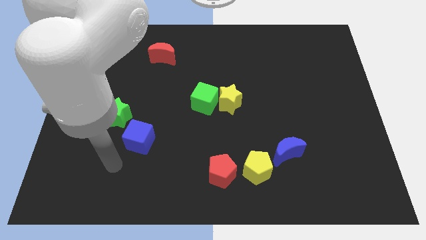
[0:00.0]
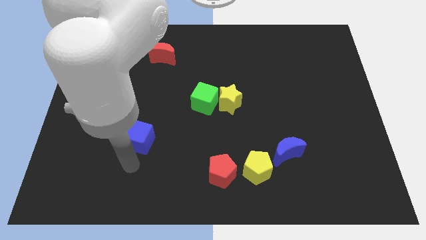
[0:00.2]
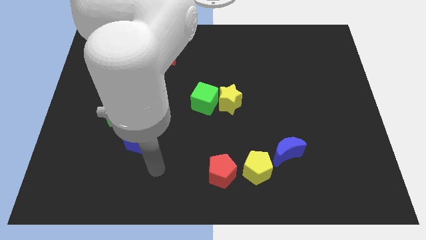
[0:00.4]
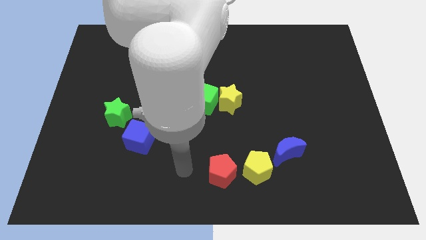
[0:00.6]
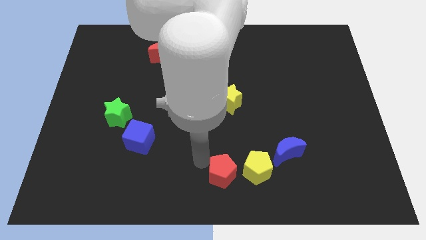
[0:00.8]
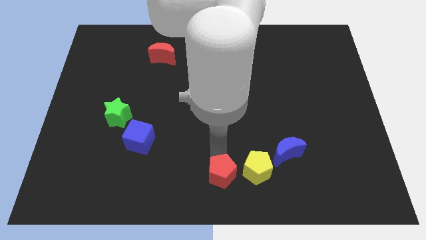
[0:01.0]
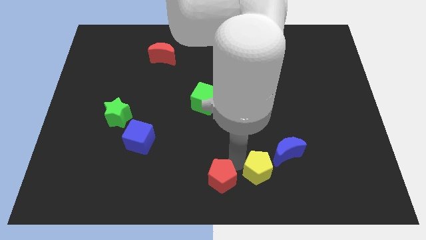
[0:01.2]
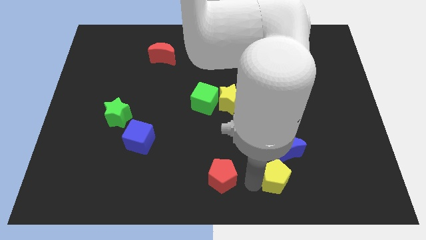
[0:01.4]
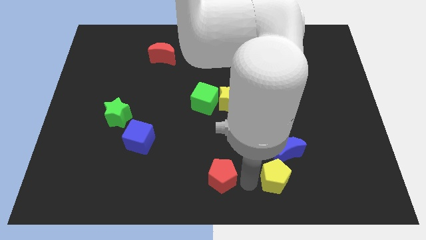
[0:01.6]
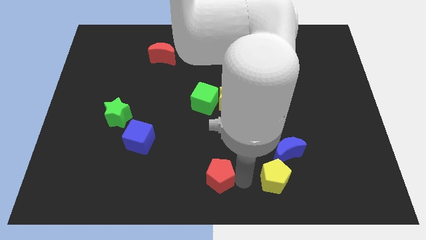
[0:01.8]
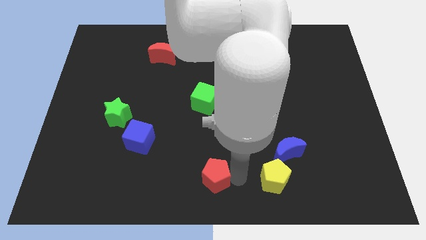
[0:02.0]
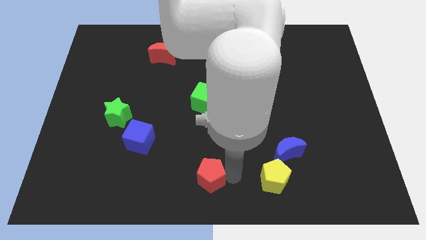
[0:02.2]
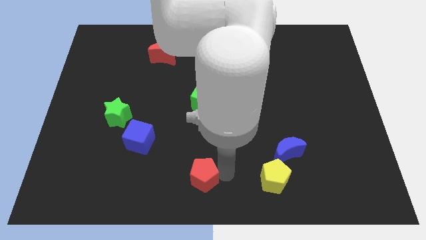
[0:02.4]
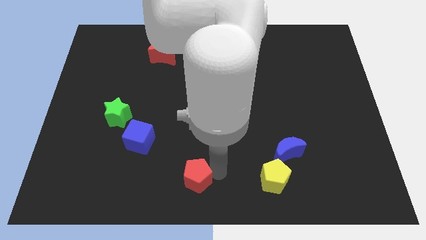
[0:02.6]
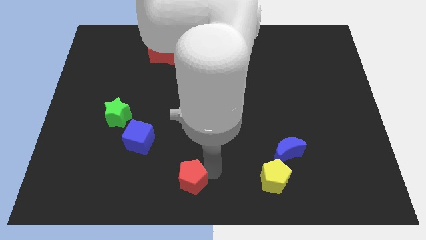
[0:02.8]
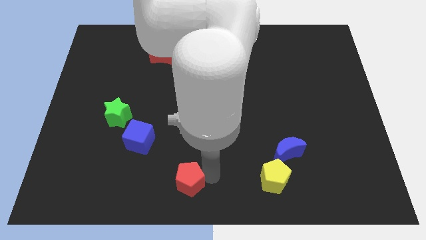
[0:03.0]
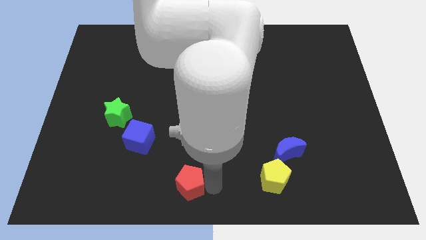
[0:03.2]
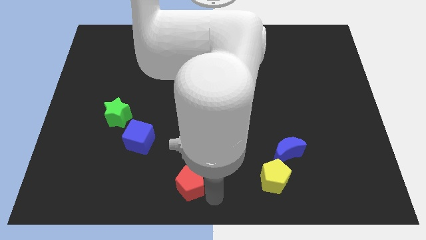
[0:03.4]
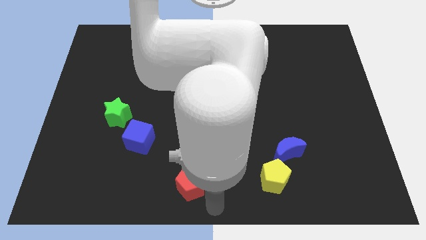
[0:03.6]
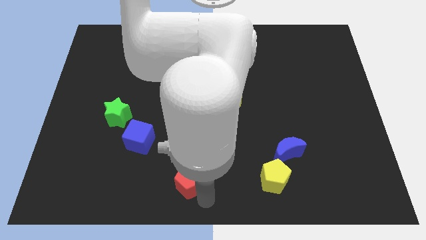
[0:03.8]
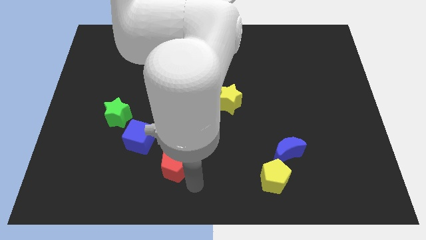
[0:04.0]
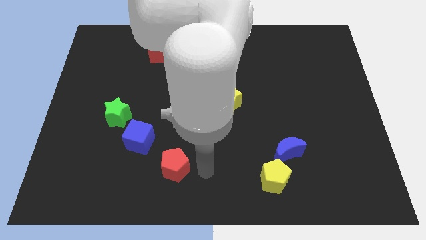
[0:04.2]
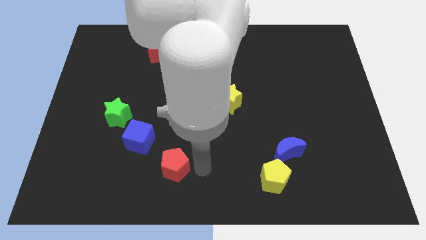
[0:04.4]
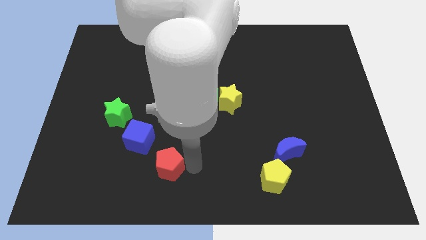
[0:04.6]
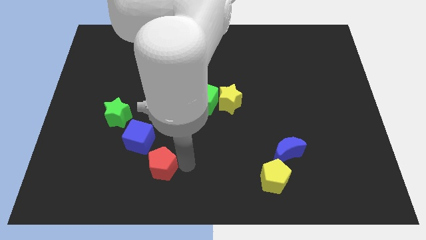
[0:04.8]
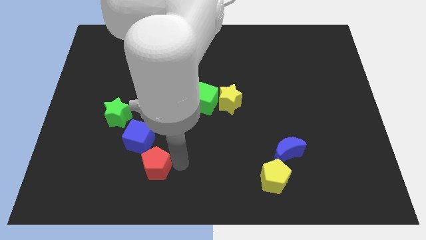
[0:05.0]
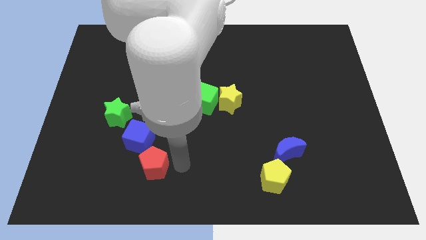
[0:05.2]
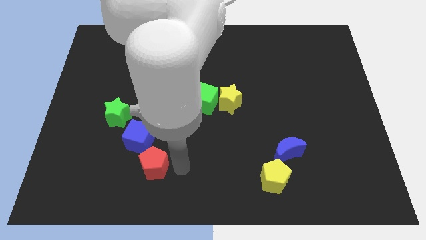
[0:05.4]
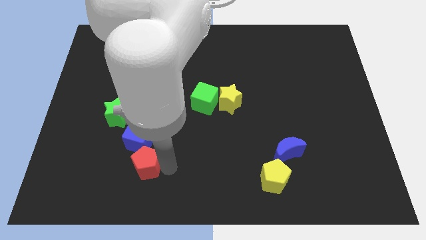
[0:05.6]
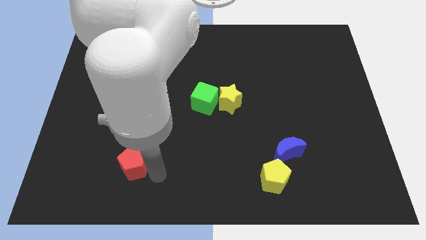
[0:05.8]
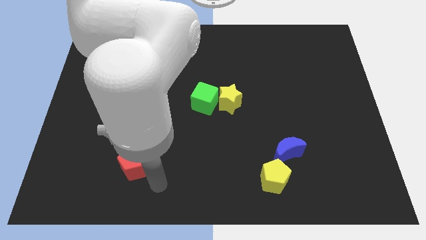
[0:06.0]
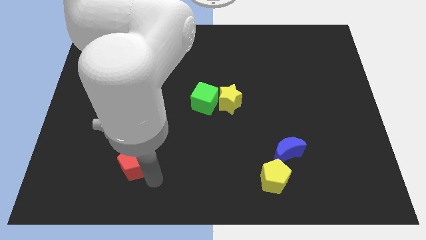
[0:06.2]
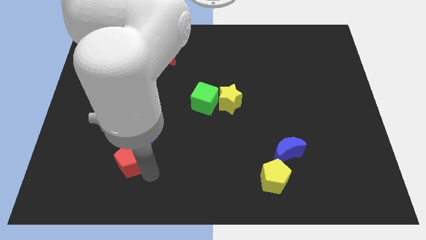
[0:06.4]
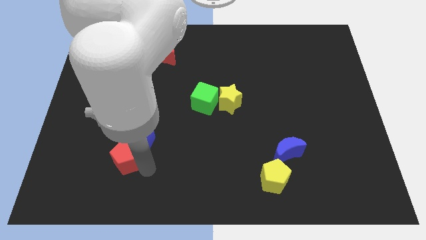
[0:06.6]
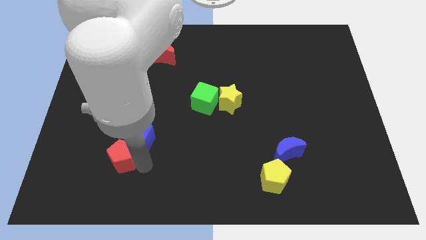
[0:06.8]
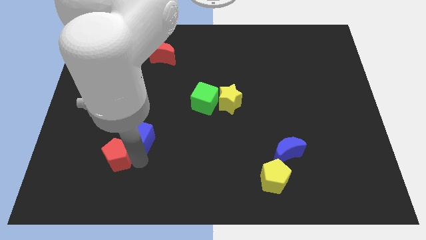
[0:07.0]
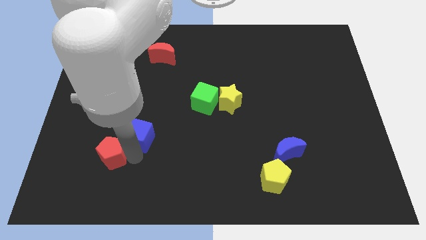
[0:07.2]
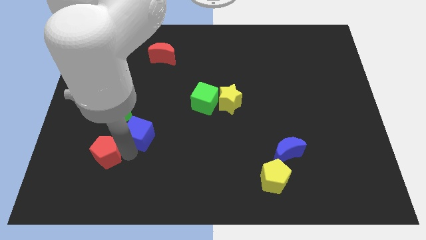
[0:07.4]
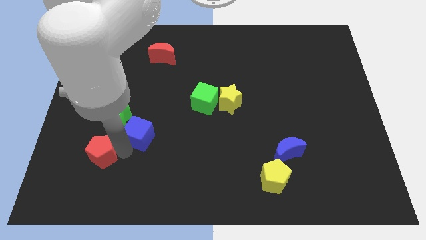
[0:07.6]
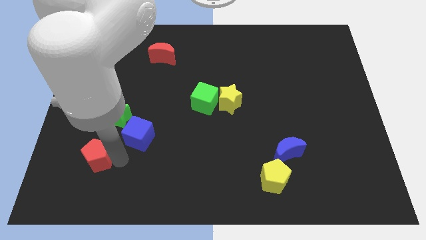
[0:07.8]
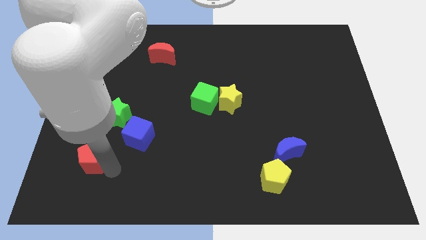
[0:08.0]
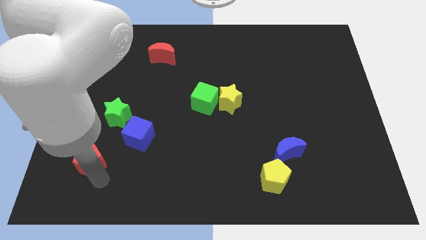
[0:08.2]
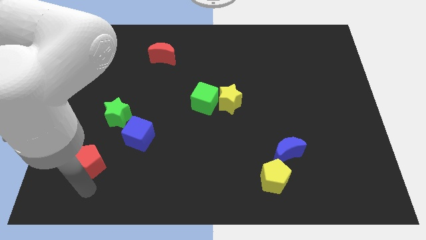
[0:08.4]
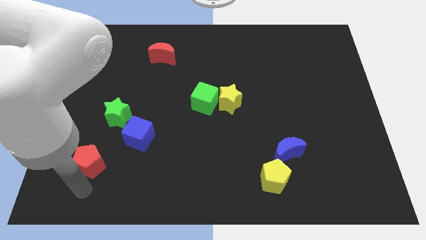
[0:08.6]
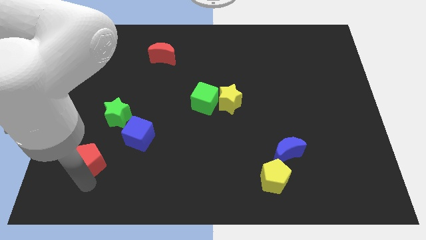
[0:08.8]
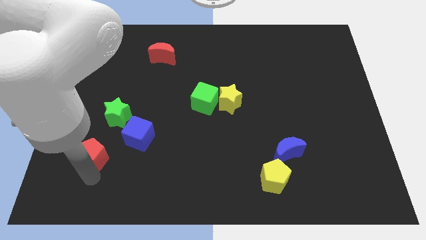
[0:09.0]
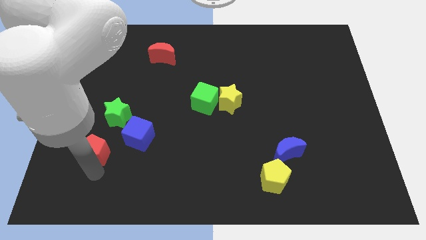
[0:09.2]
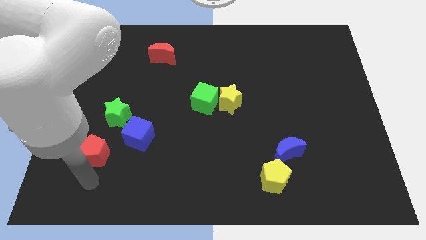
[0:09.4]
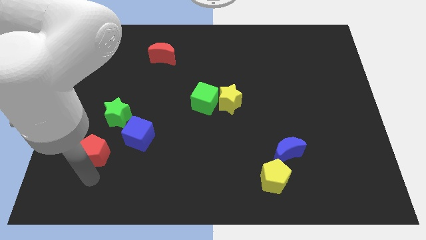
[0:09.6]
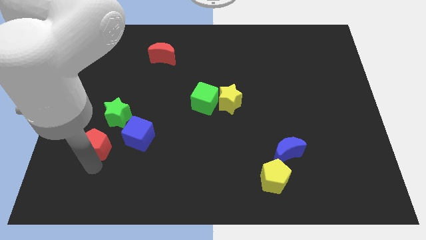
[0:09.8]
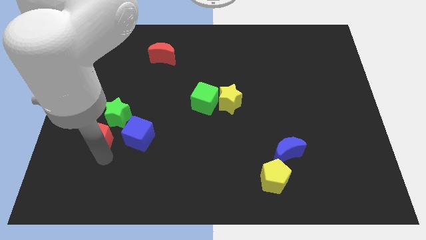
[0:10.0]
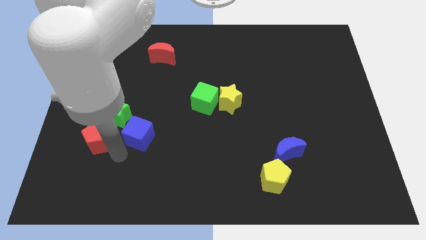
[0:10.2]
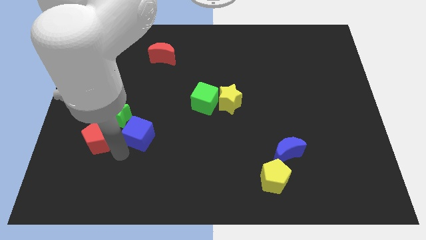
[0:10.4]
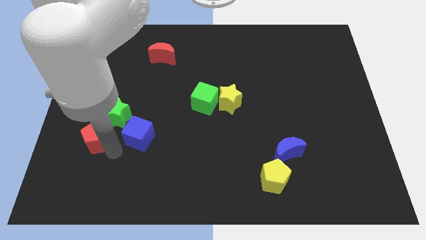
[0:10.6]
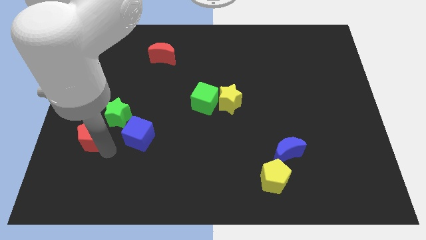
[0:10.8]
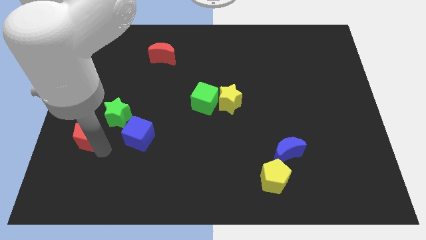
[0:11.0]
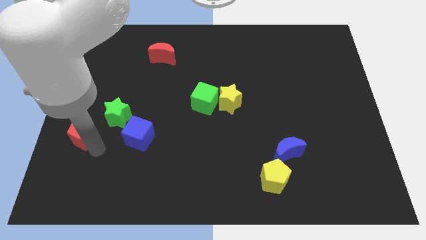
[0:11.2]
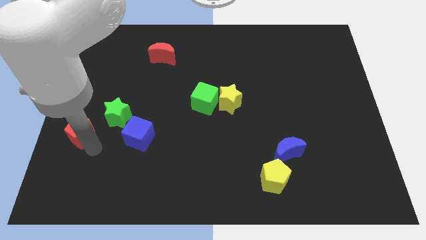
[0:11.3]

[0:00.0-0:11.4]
put the red pentagon to the left side

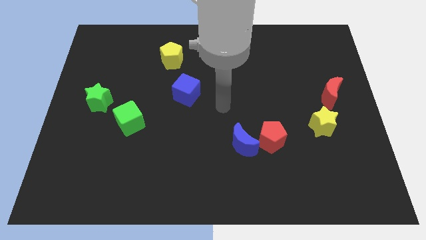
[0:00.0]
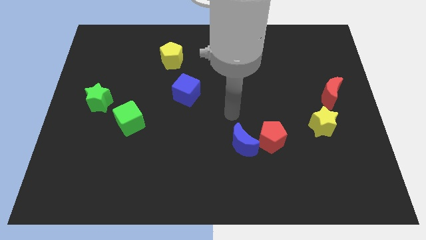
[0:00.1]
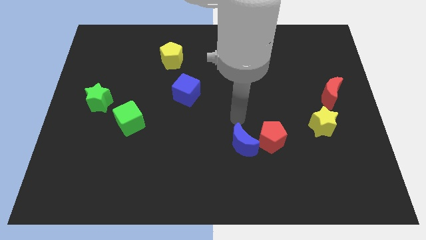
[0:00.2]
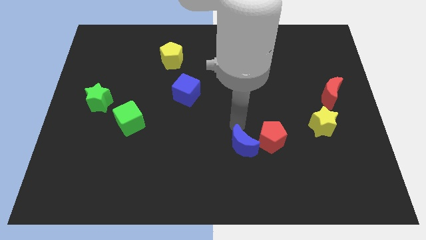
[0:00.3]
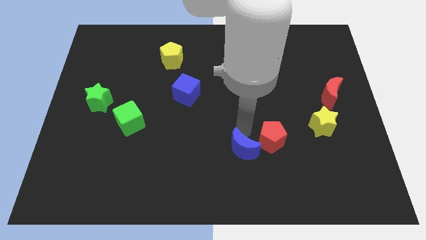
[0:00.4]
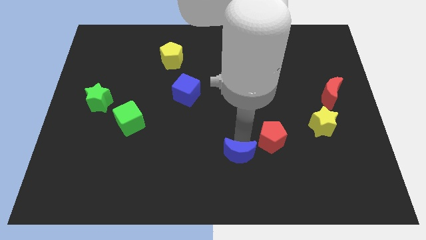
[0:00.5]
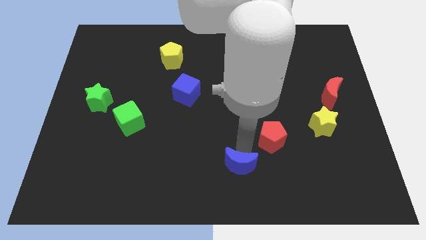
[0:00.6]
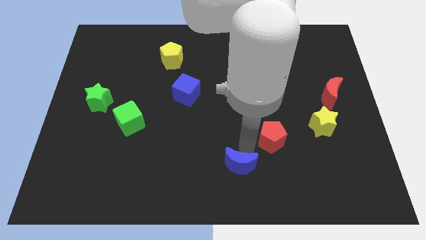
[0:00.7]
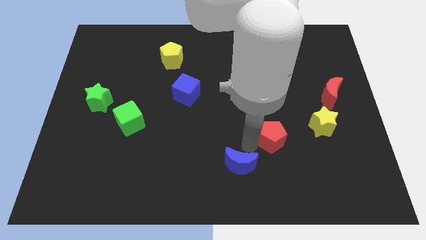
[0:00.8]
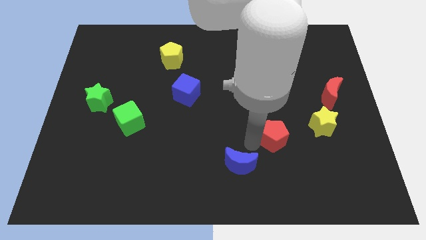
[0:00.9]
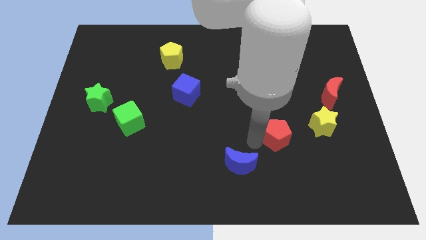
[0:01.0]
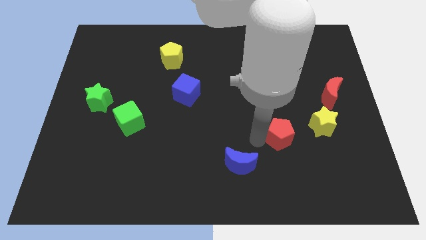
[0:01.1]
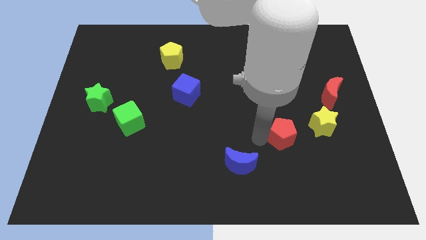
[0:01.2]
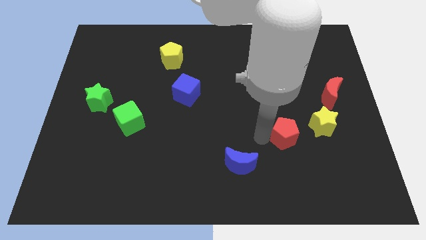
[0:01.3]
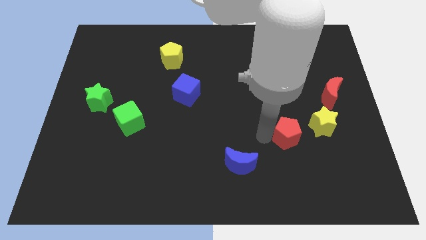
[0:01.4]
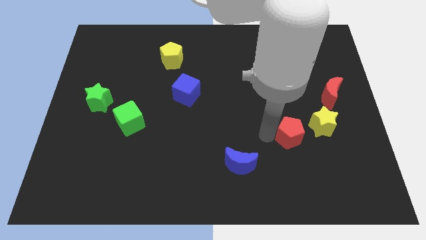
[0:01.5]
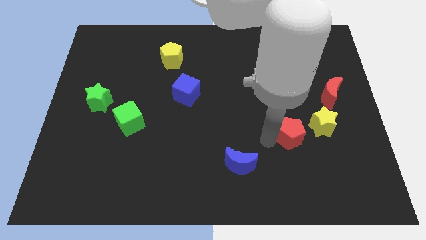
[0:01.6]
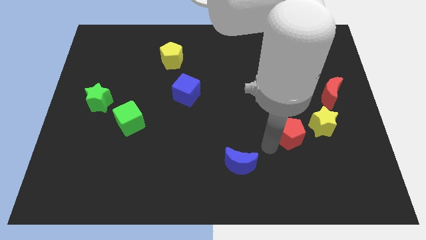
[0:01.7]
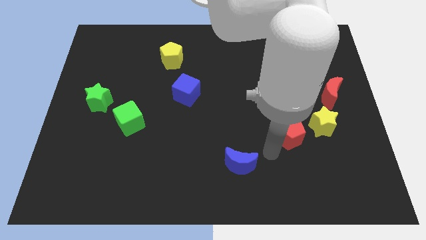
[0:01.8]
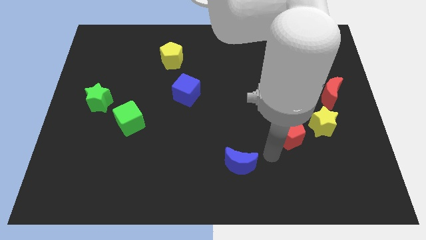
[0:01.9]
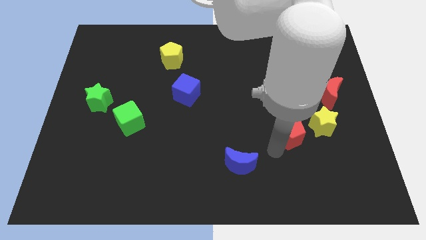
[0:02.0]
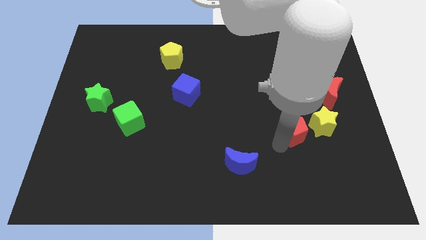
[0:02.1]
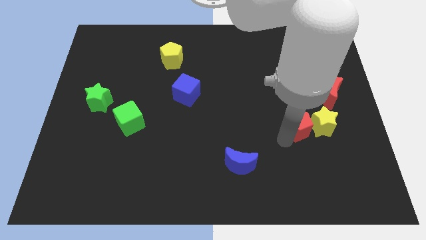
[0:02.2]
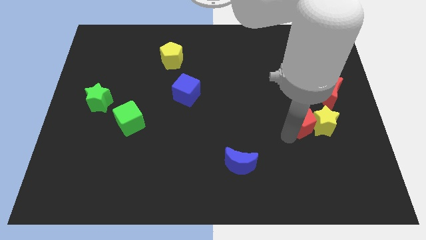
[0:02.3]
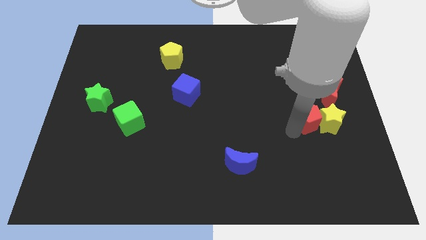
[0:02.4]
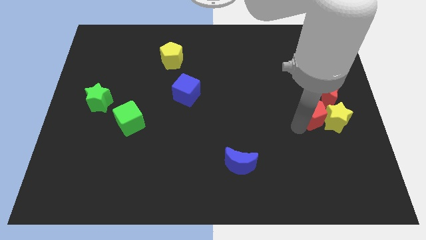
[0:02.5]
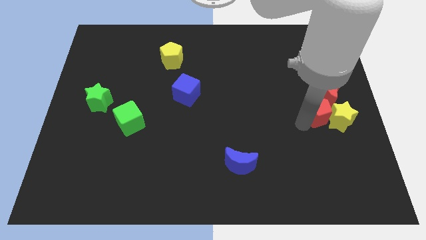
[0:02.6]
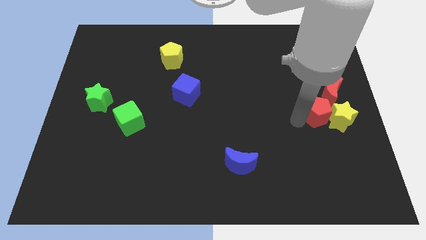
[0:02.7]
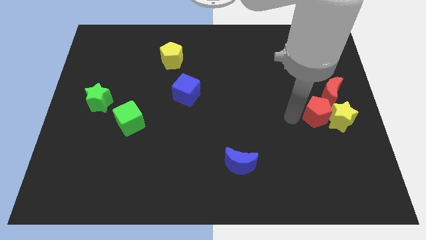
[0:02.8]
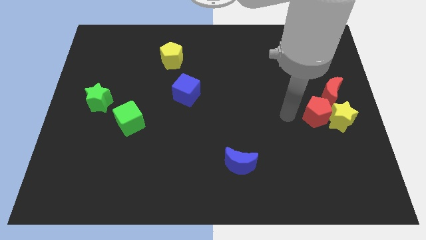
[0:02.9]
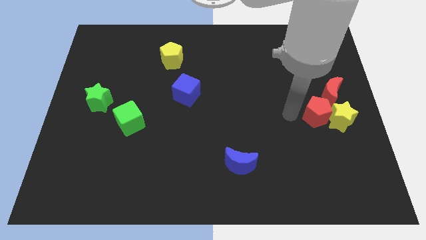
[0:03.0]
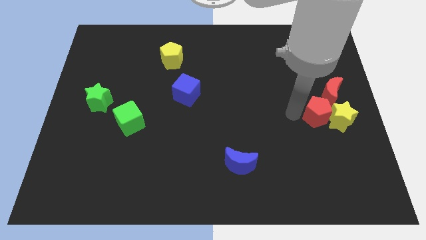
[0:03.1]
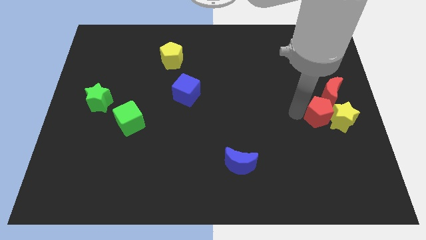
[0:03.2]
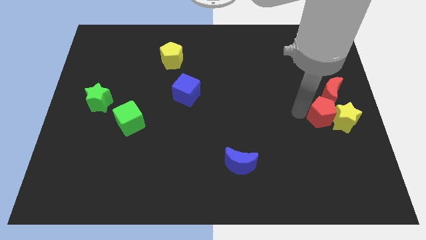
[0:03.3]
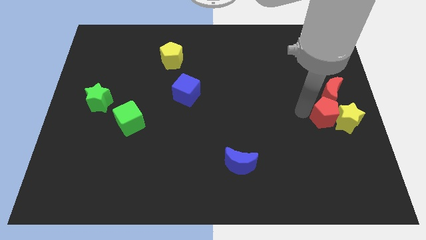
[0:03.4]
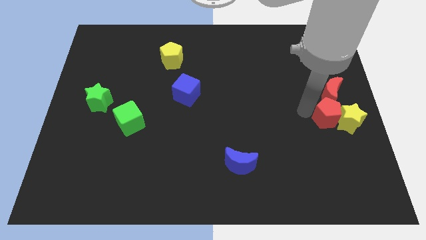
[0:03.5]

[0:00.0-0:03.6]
push the red pentagon to the center right
